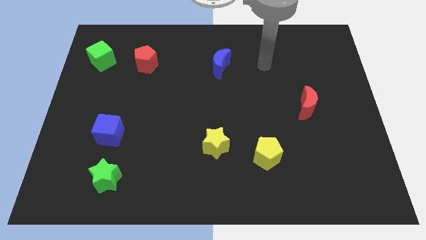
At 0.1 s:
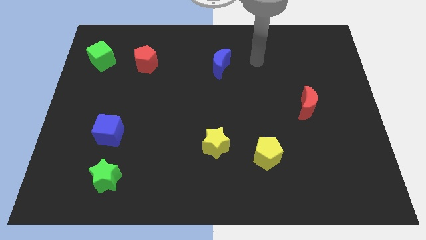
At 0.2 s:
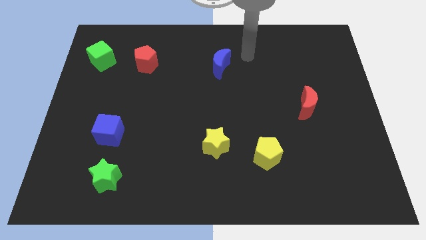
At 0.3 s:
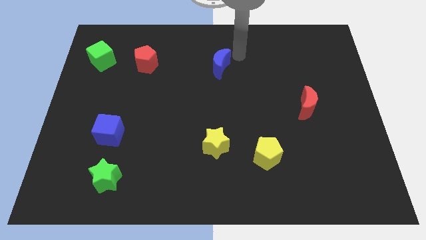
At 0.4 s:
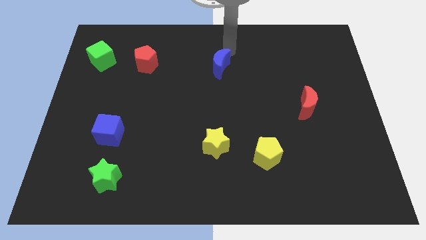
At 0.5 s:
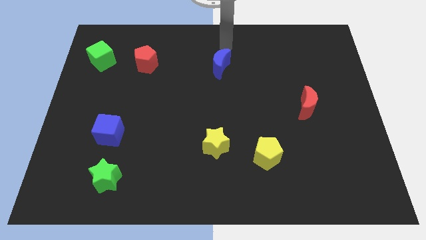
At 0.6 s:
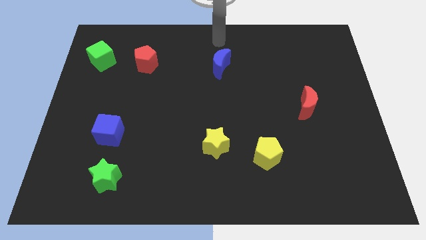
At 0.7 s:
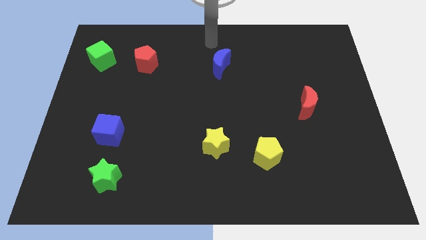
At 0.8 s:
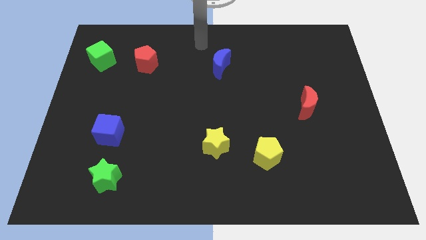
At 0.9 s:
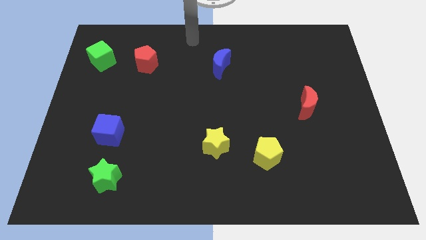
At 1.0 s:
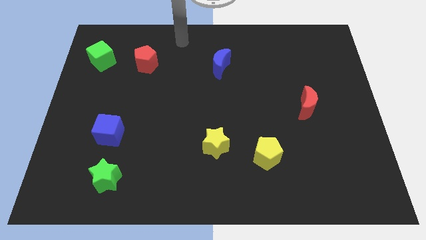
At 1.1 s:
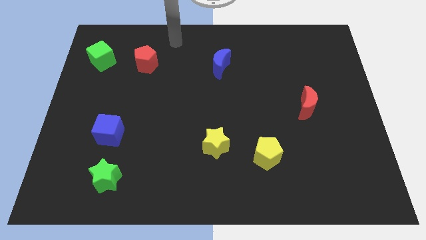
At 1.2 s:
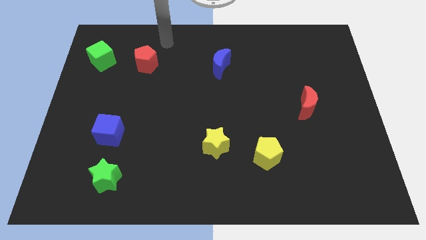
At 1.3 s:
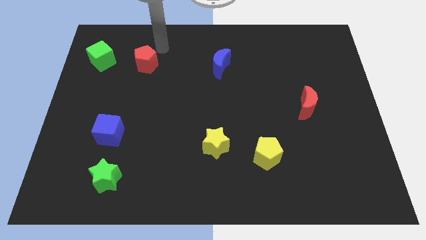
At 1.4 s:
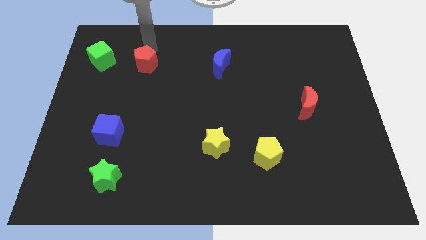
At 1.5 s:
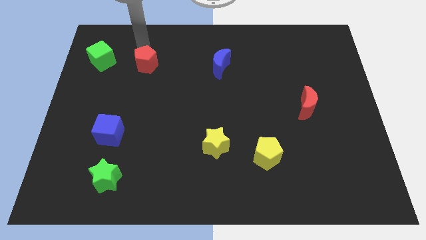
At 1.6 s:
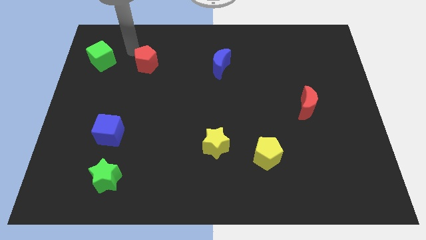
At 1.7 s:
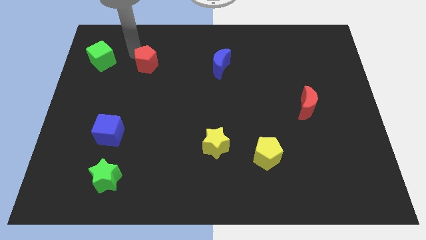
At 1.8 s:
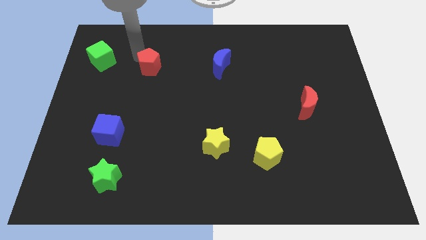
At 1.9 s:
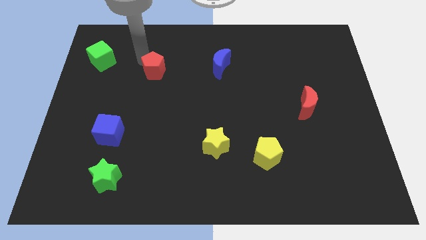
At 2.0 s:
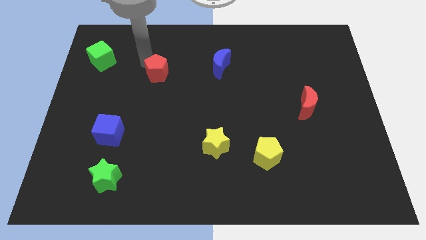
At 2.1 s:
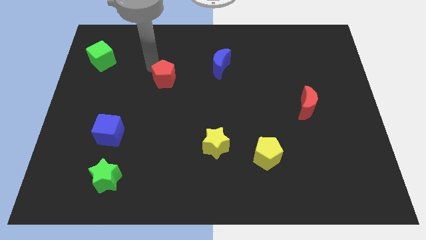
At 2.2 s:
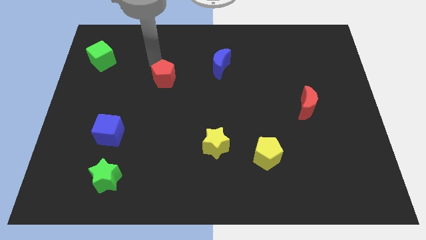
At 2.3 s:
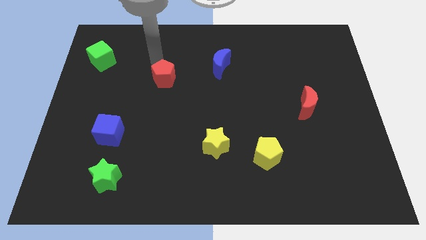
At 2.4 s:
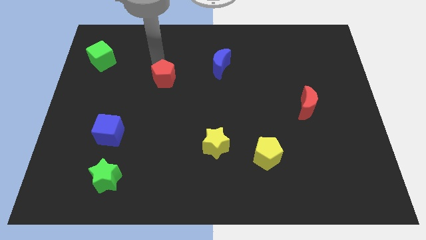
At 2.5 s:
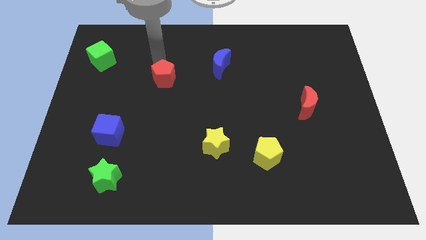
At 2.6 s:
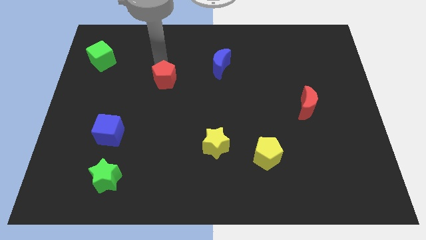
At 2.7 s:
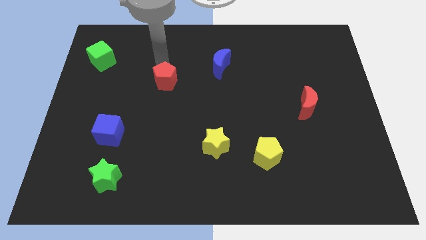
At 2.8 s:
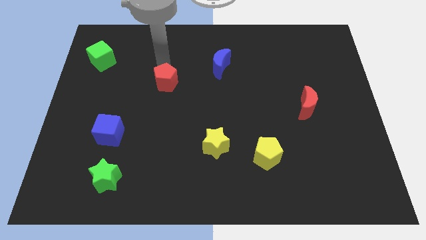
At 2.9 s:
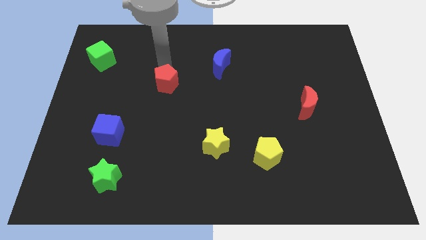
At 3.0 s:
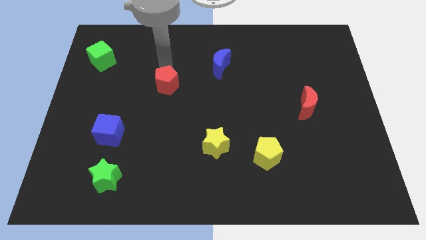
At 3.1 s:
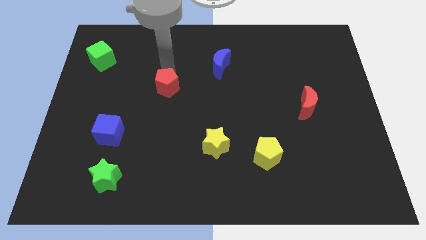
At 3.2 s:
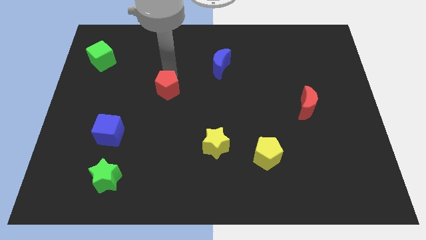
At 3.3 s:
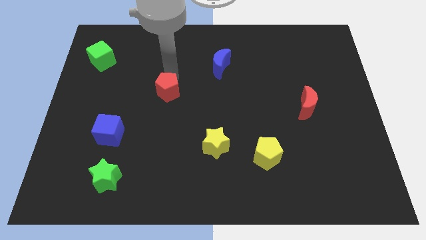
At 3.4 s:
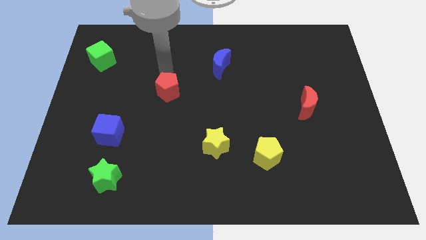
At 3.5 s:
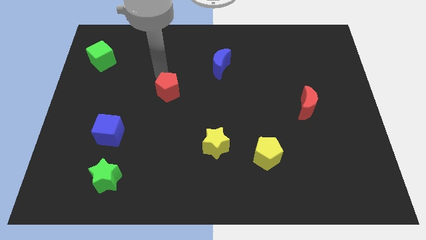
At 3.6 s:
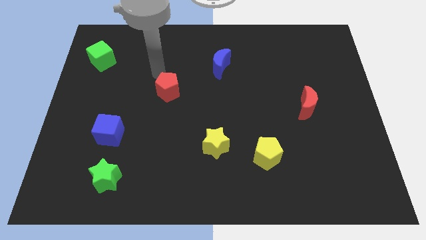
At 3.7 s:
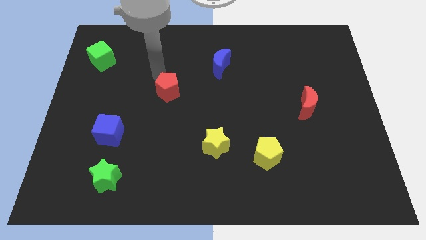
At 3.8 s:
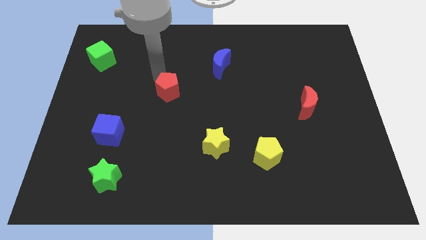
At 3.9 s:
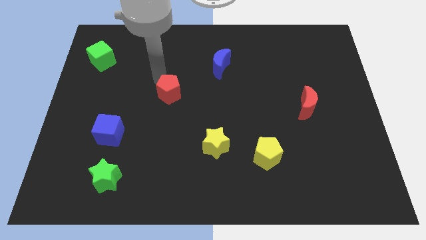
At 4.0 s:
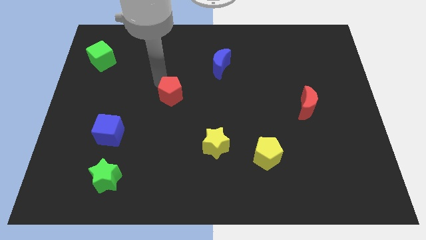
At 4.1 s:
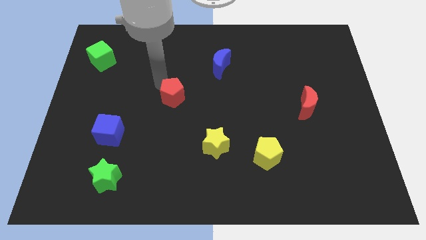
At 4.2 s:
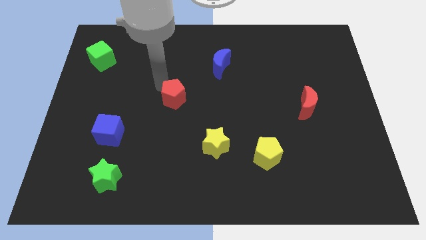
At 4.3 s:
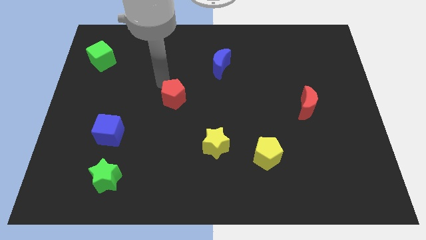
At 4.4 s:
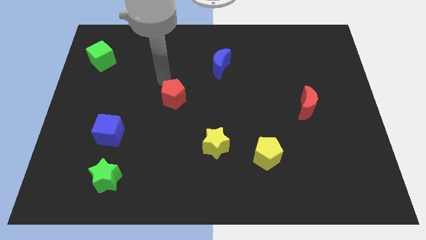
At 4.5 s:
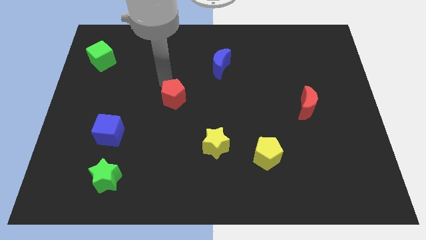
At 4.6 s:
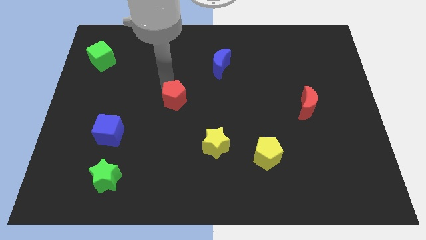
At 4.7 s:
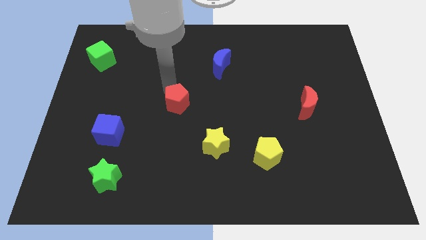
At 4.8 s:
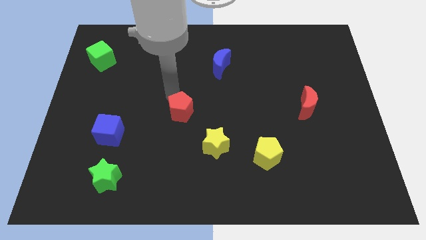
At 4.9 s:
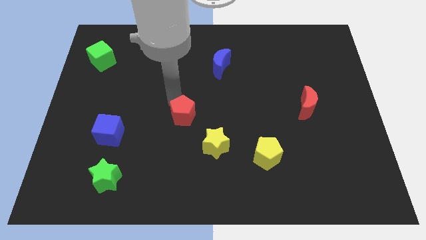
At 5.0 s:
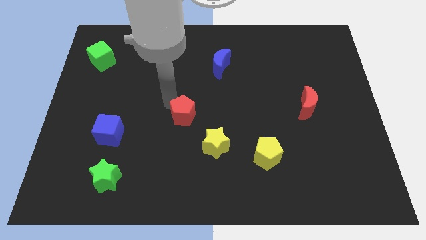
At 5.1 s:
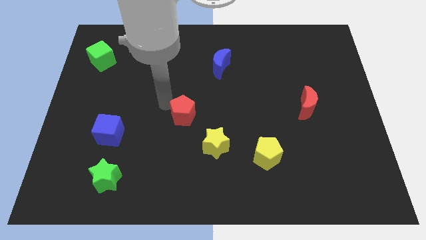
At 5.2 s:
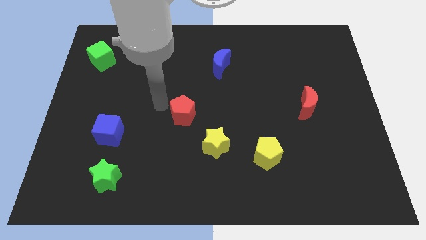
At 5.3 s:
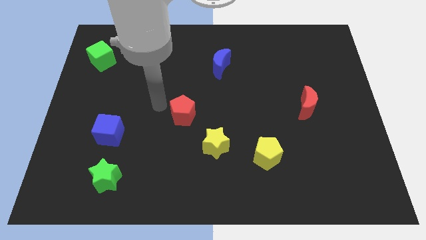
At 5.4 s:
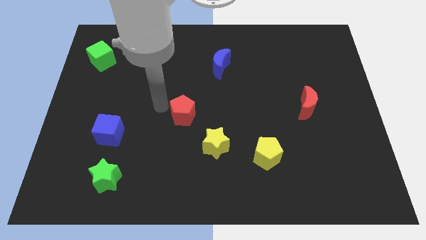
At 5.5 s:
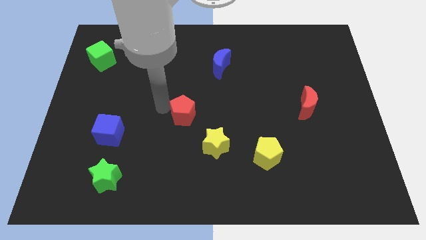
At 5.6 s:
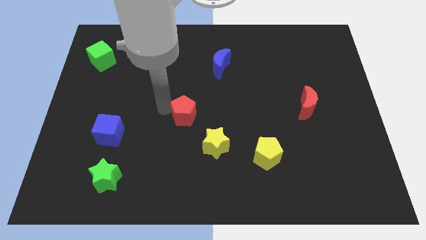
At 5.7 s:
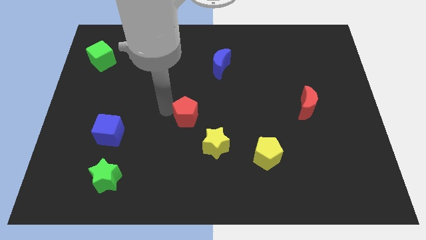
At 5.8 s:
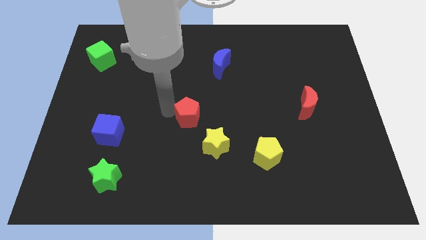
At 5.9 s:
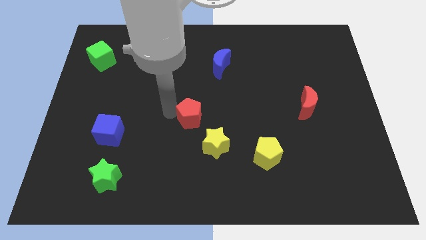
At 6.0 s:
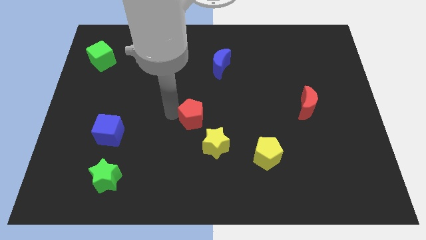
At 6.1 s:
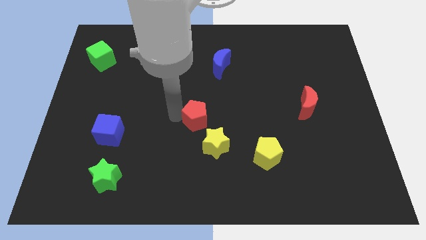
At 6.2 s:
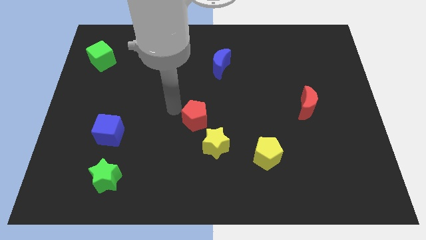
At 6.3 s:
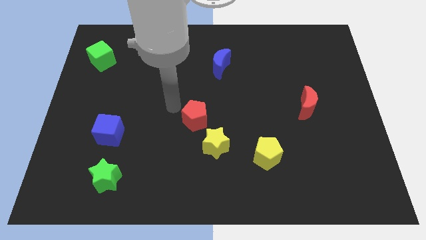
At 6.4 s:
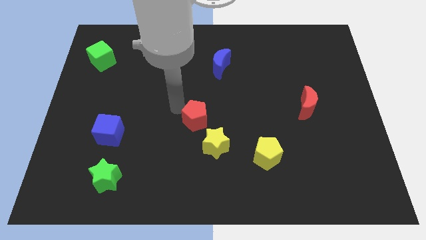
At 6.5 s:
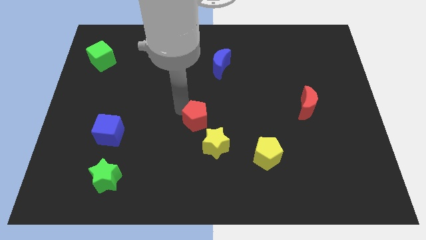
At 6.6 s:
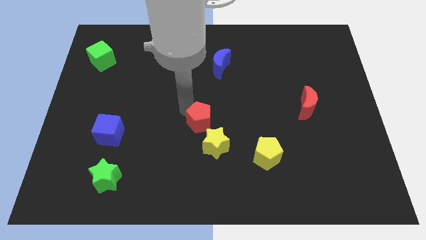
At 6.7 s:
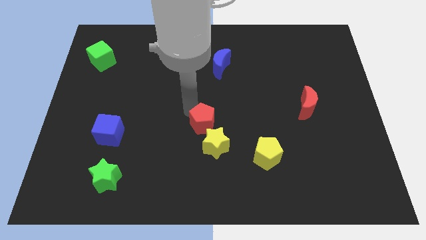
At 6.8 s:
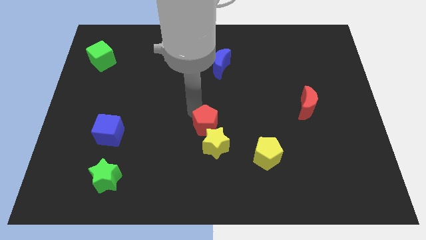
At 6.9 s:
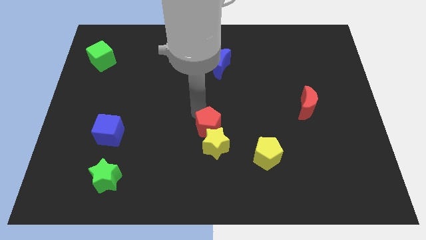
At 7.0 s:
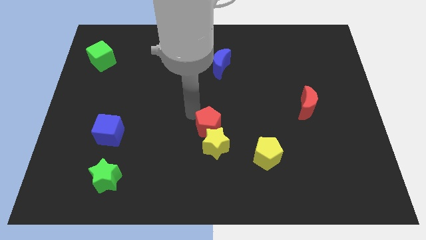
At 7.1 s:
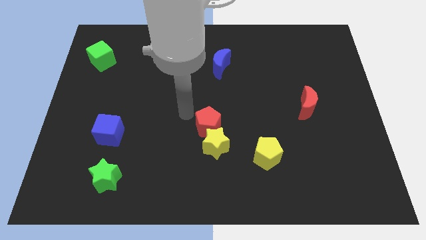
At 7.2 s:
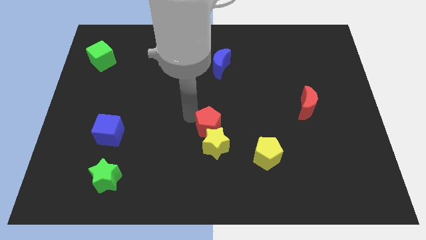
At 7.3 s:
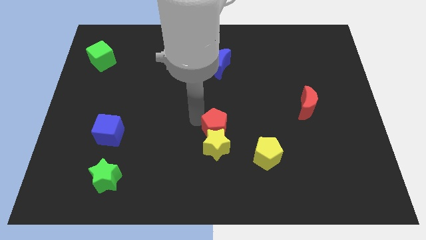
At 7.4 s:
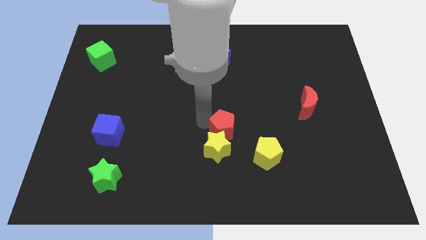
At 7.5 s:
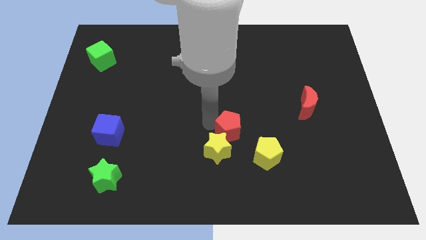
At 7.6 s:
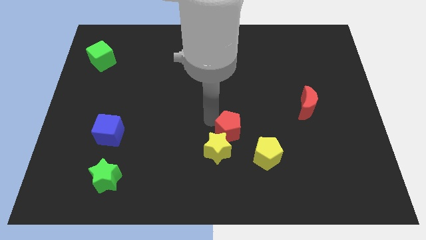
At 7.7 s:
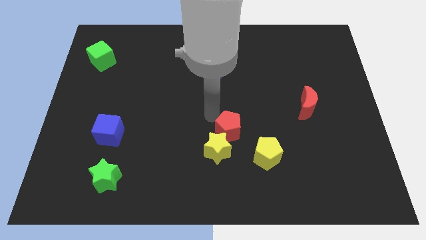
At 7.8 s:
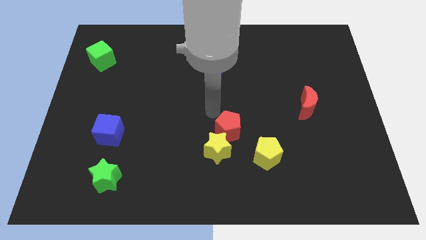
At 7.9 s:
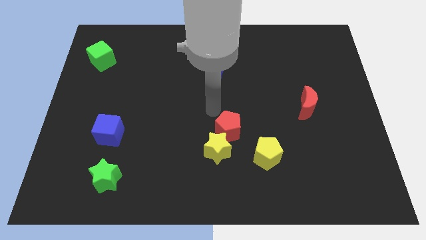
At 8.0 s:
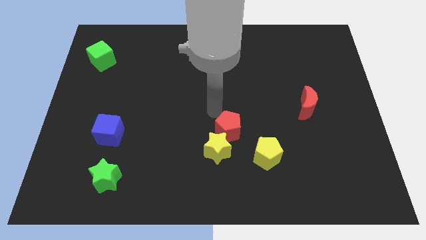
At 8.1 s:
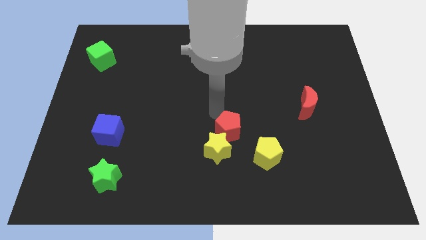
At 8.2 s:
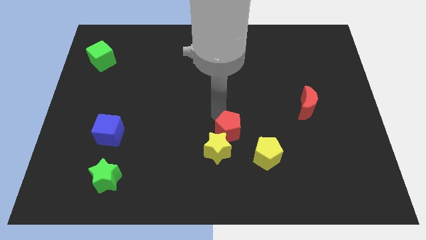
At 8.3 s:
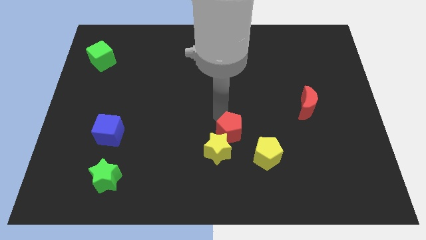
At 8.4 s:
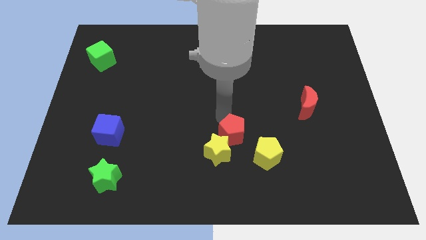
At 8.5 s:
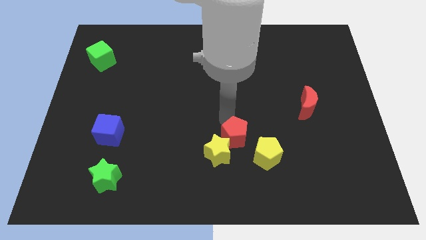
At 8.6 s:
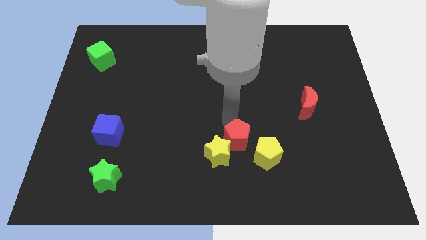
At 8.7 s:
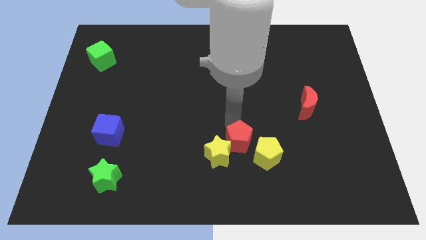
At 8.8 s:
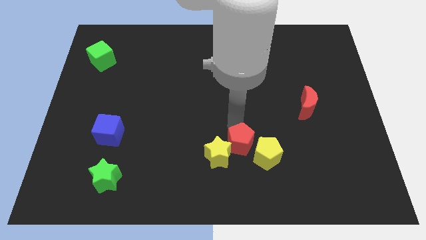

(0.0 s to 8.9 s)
push the red pentagon close to the yellow pentagon
